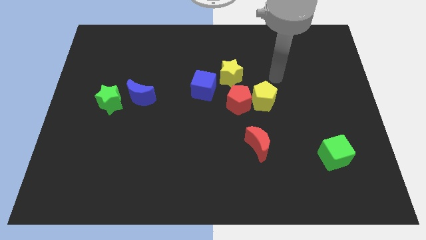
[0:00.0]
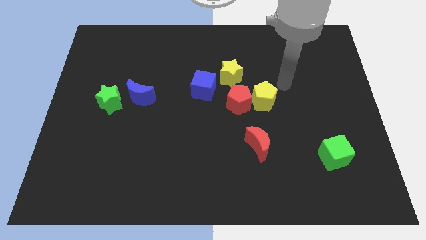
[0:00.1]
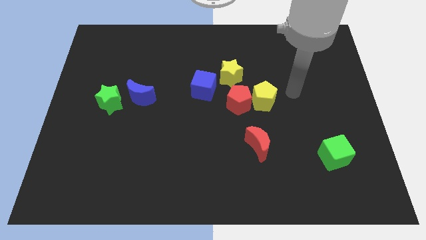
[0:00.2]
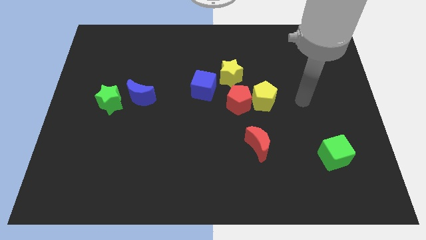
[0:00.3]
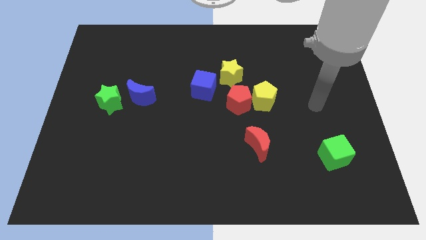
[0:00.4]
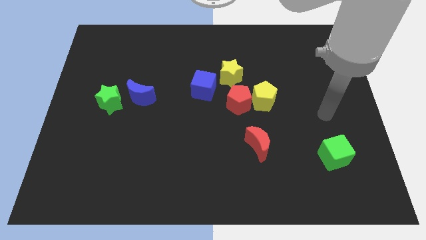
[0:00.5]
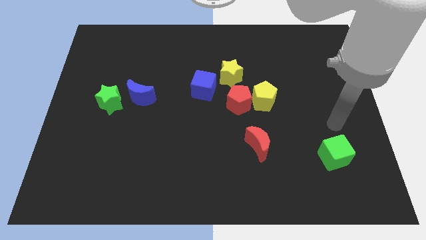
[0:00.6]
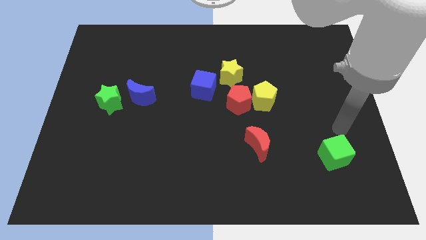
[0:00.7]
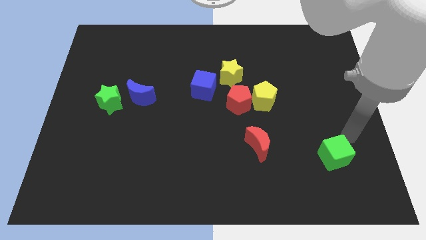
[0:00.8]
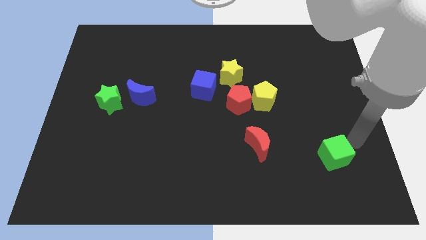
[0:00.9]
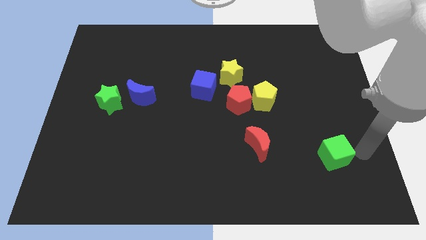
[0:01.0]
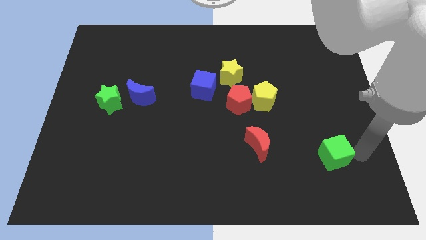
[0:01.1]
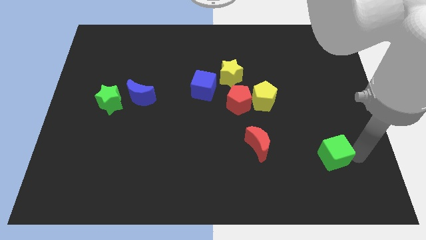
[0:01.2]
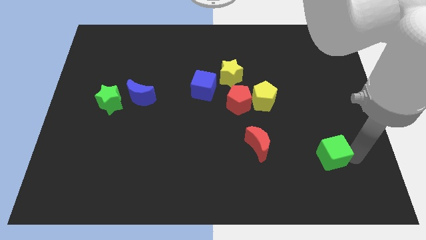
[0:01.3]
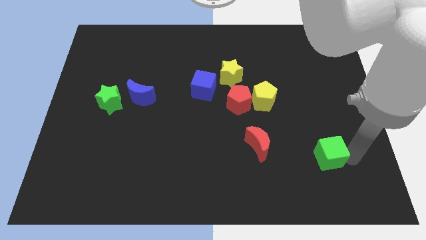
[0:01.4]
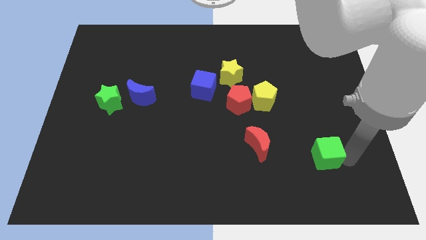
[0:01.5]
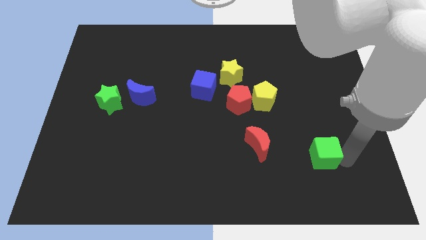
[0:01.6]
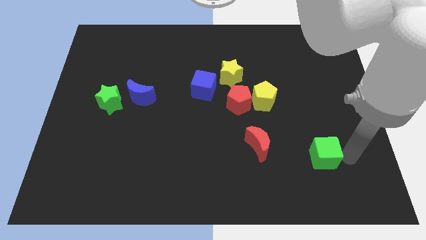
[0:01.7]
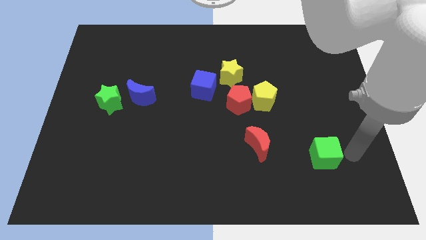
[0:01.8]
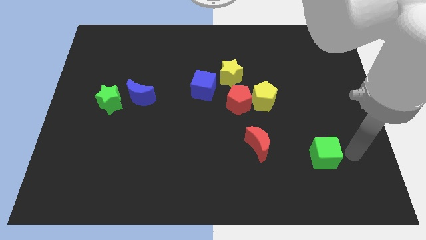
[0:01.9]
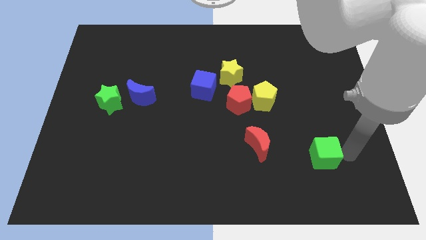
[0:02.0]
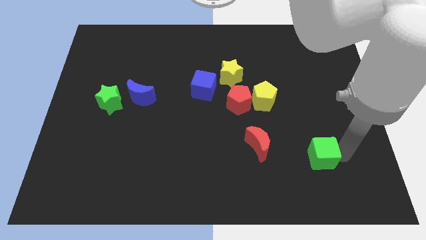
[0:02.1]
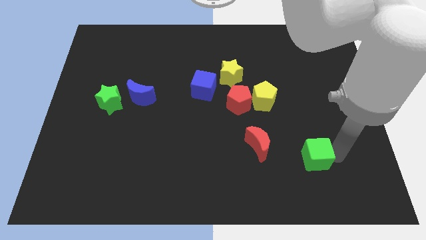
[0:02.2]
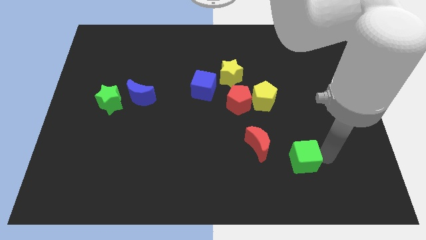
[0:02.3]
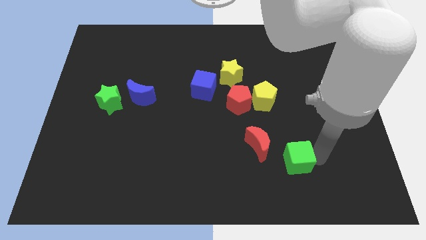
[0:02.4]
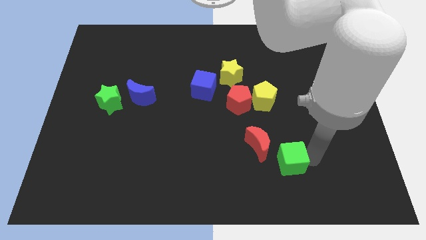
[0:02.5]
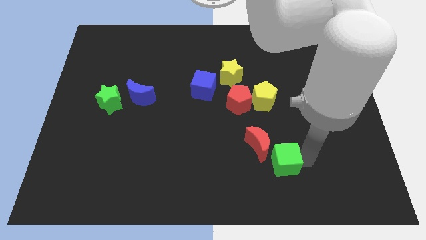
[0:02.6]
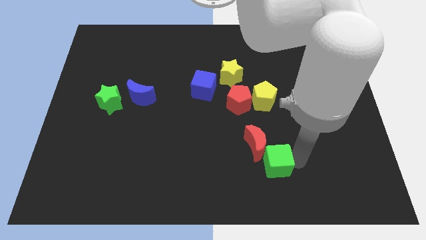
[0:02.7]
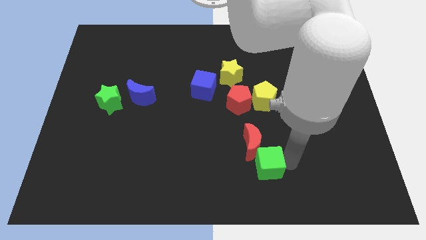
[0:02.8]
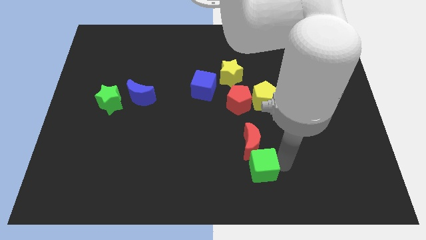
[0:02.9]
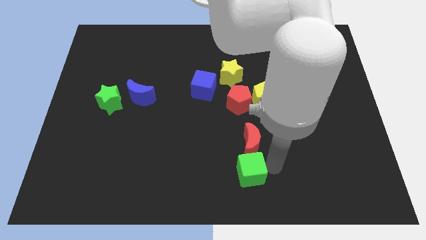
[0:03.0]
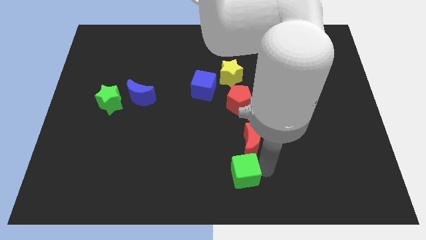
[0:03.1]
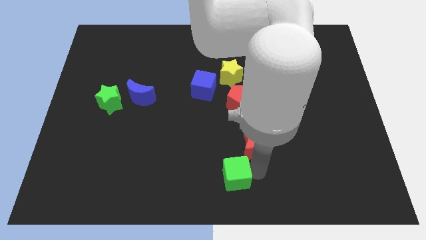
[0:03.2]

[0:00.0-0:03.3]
slide the green cube left

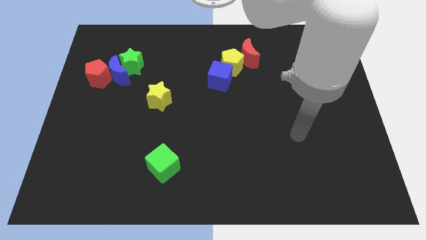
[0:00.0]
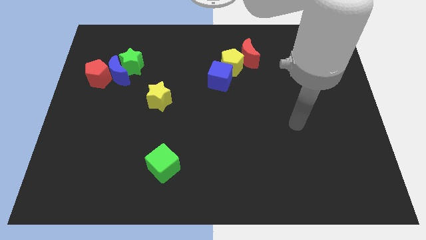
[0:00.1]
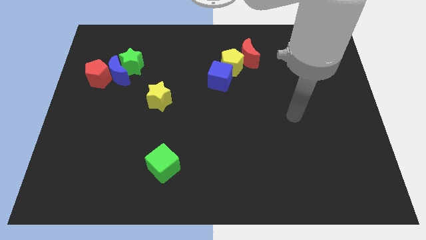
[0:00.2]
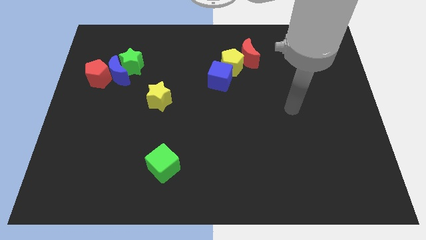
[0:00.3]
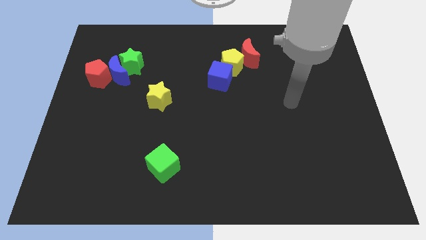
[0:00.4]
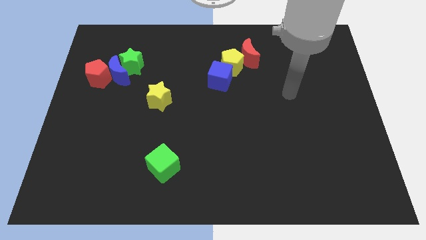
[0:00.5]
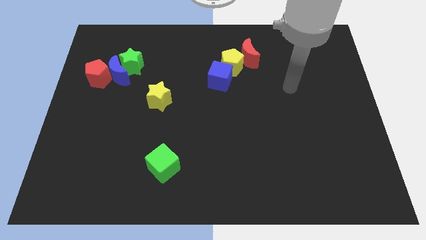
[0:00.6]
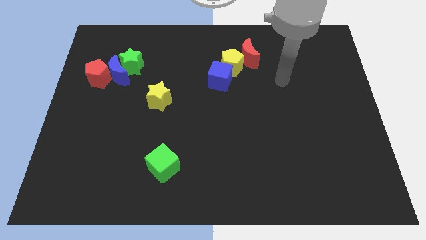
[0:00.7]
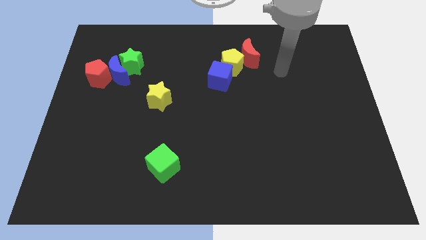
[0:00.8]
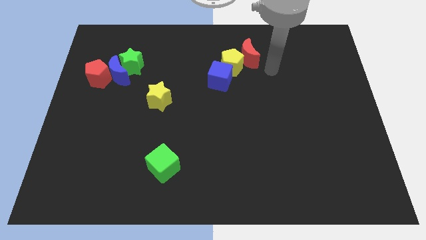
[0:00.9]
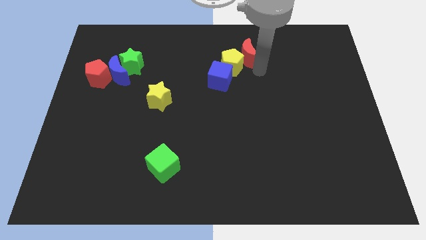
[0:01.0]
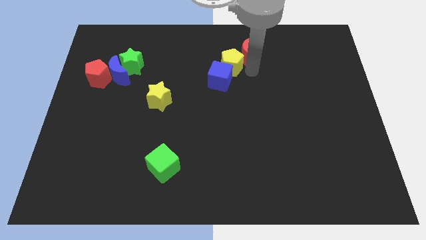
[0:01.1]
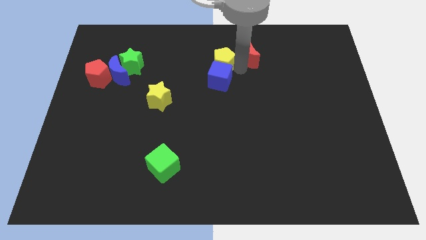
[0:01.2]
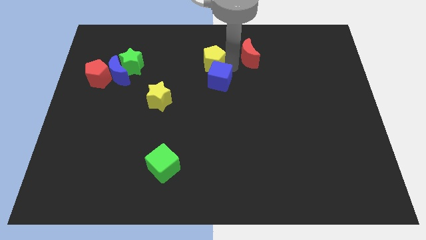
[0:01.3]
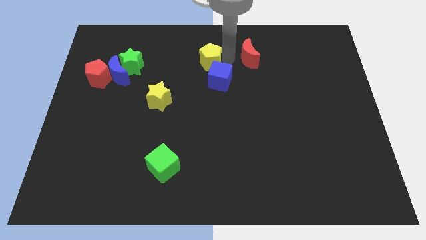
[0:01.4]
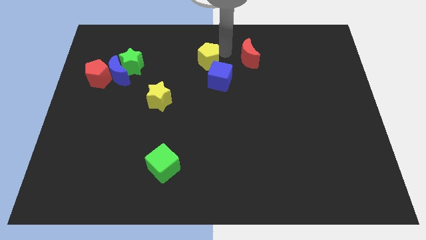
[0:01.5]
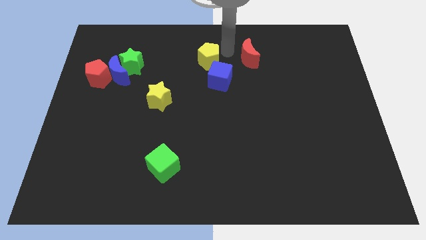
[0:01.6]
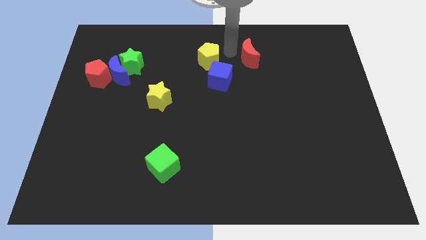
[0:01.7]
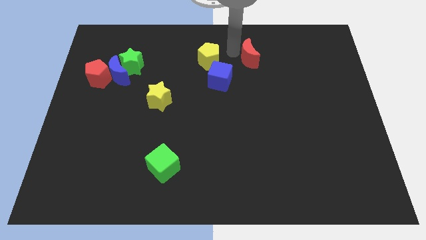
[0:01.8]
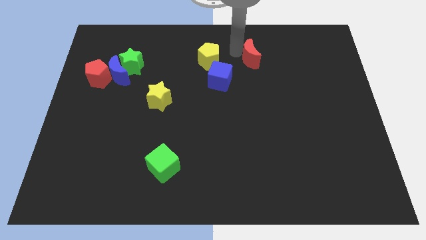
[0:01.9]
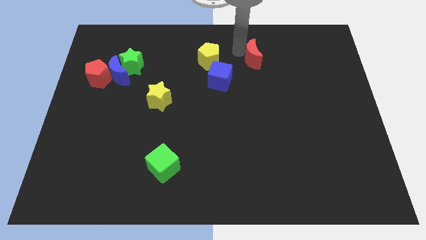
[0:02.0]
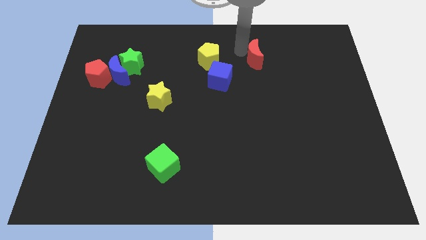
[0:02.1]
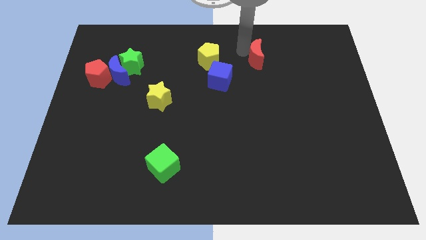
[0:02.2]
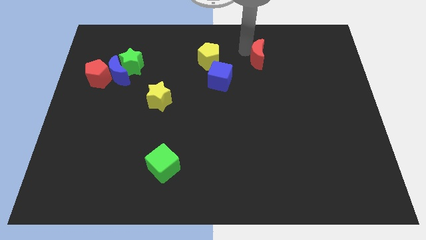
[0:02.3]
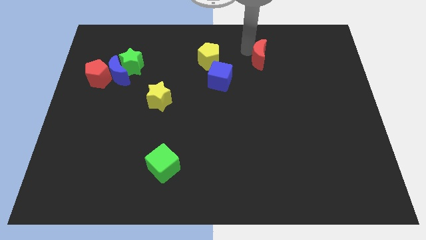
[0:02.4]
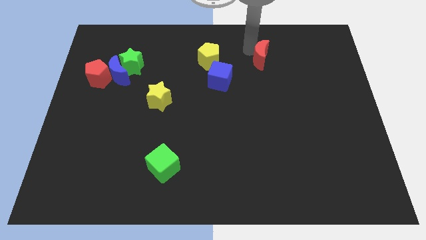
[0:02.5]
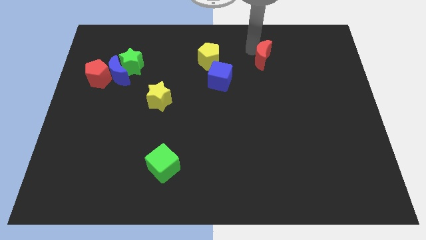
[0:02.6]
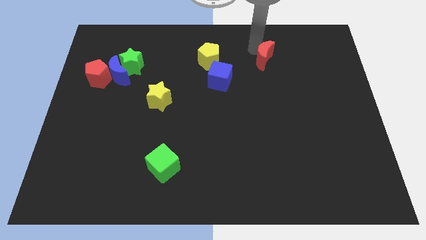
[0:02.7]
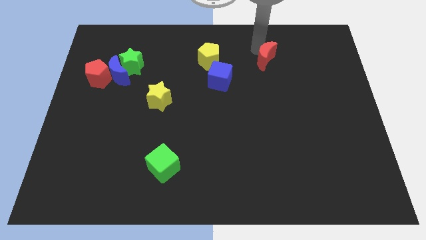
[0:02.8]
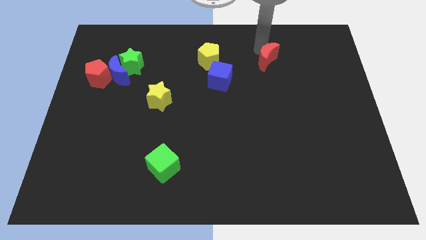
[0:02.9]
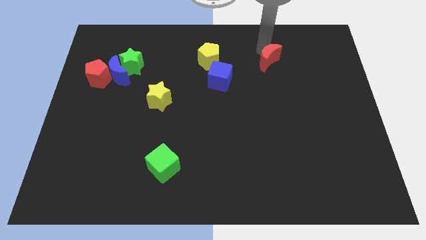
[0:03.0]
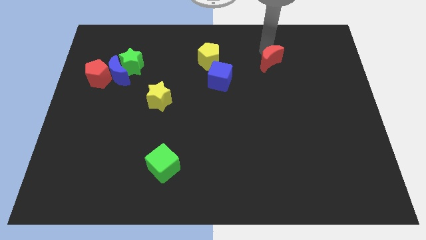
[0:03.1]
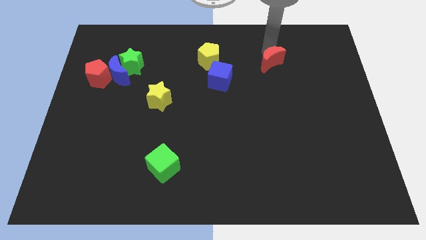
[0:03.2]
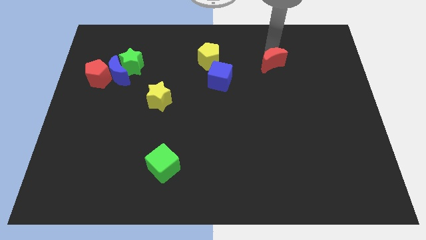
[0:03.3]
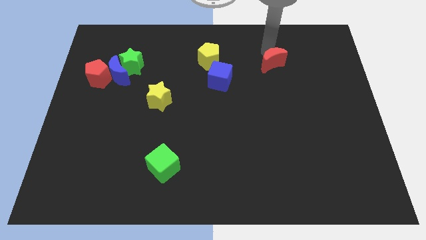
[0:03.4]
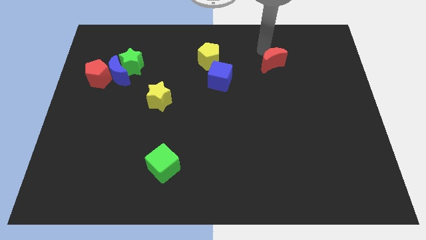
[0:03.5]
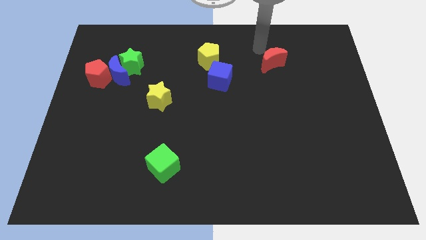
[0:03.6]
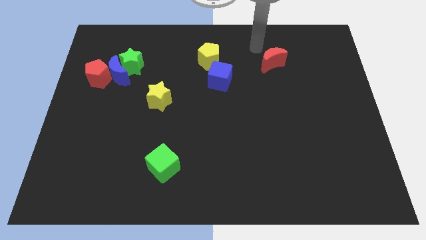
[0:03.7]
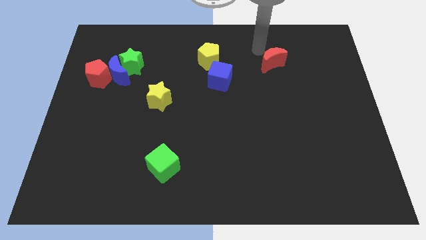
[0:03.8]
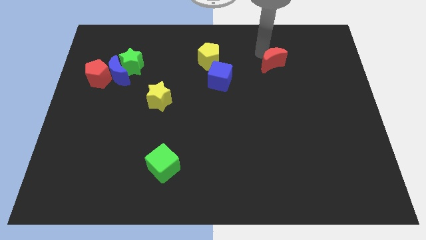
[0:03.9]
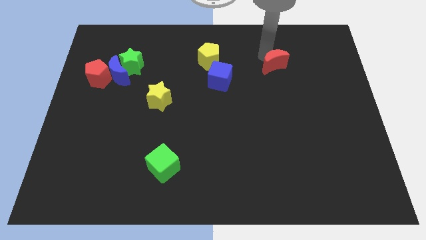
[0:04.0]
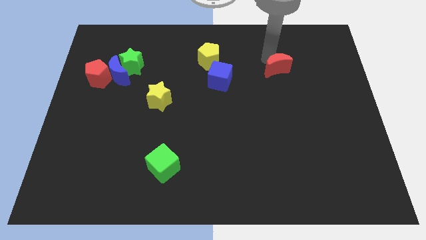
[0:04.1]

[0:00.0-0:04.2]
slightly slide the red moon downwards and to the right

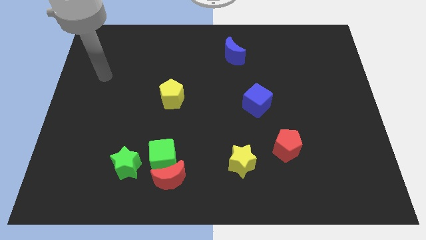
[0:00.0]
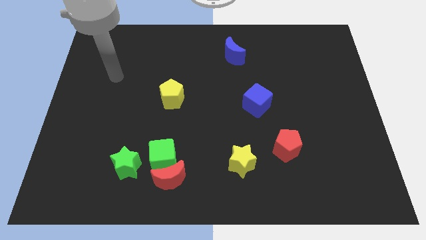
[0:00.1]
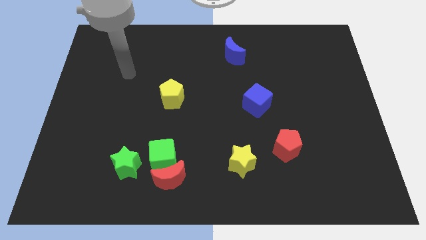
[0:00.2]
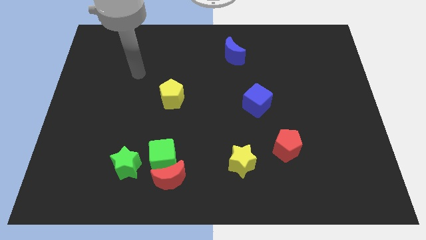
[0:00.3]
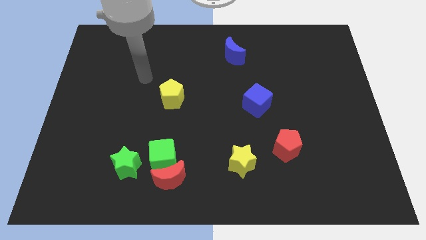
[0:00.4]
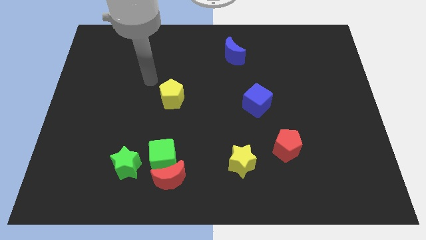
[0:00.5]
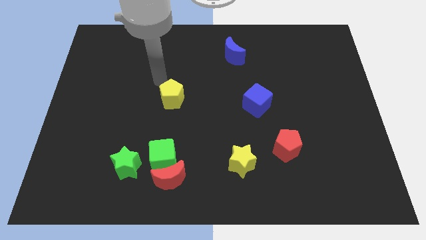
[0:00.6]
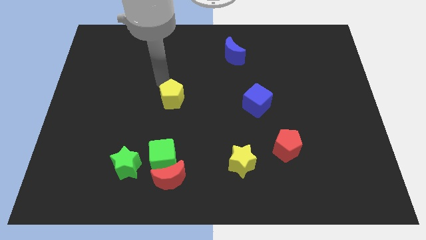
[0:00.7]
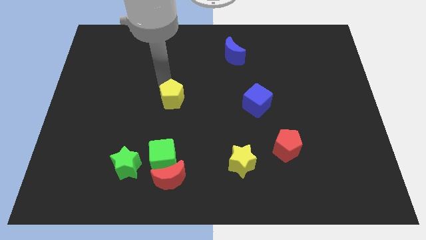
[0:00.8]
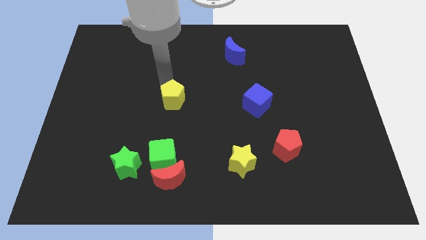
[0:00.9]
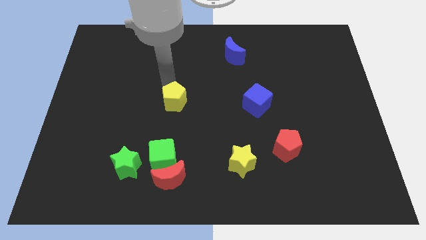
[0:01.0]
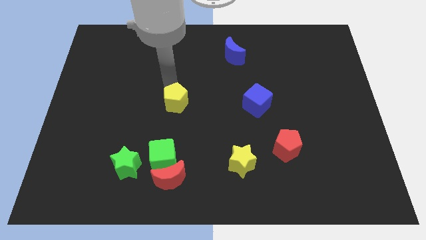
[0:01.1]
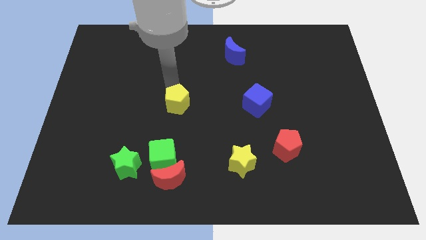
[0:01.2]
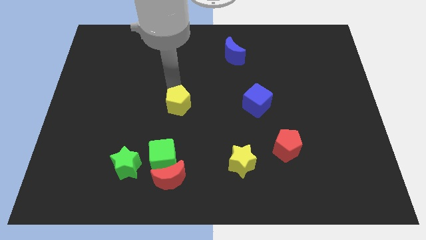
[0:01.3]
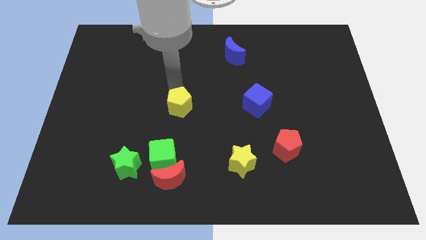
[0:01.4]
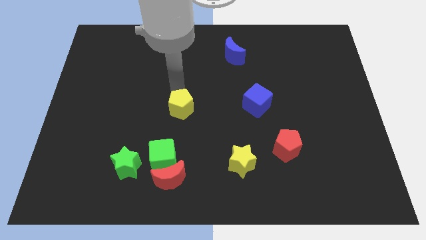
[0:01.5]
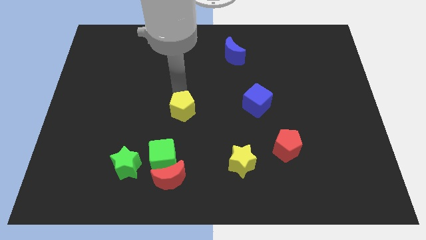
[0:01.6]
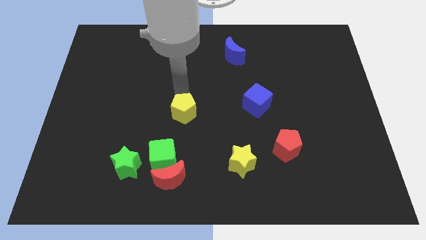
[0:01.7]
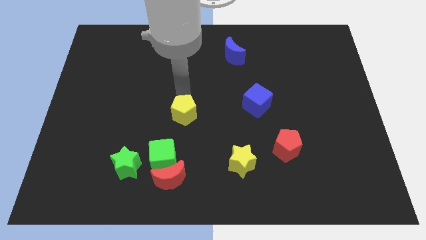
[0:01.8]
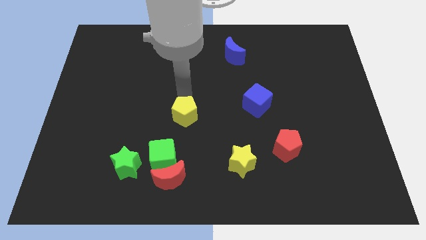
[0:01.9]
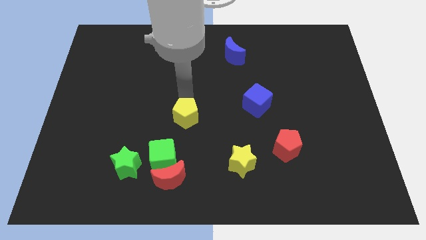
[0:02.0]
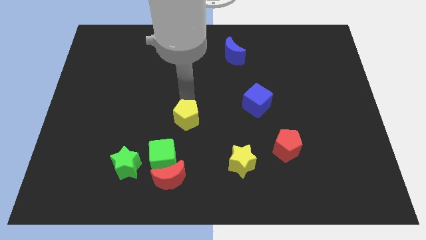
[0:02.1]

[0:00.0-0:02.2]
slide the yellow pentagon a little down and to the right
